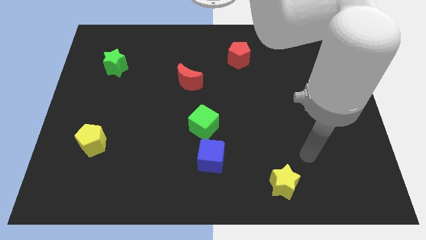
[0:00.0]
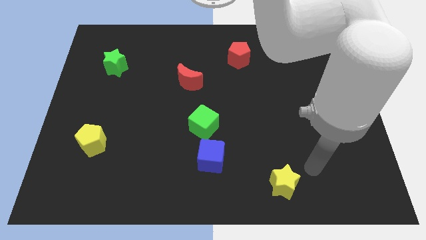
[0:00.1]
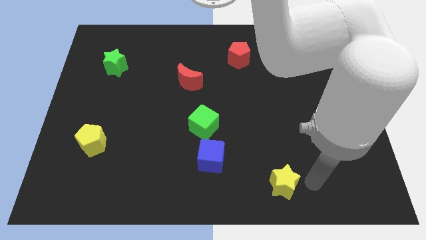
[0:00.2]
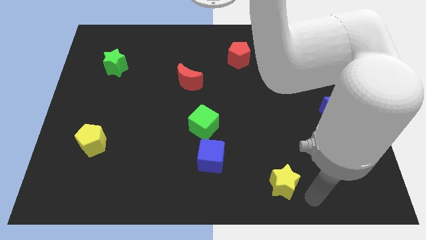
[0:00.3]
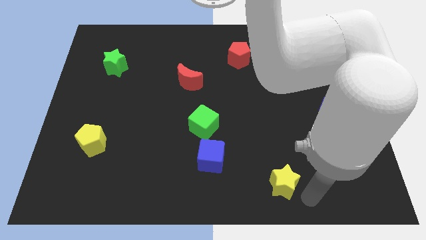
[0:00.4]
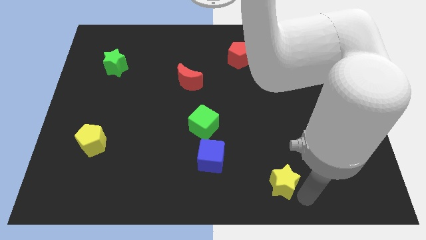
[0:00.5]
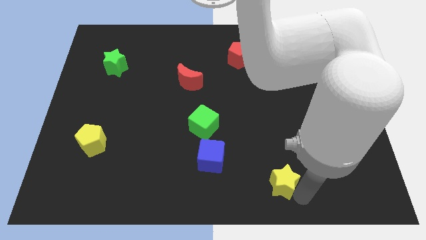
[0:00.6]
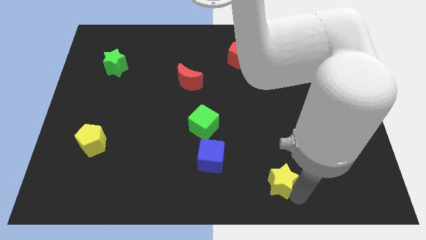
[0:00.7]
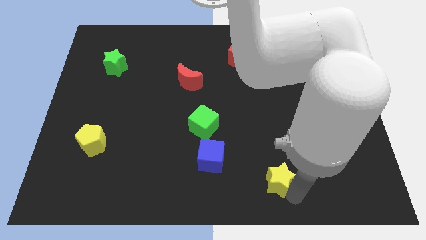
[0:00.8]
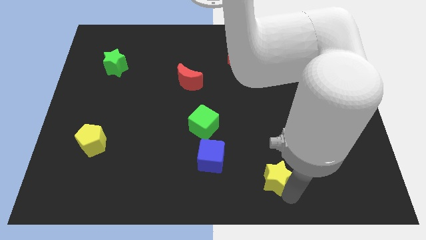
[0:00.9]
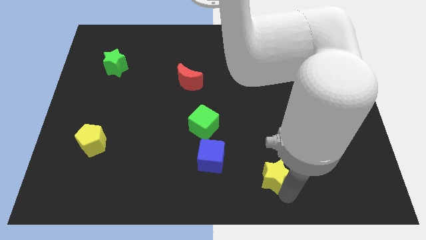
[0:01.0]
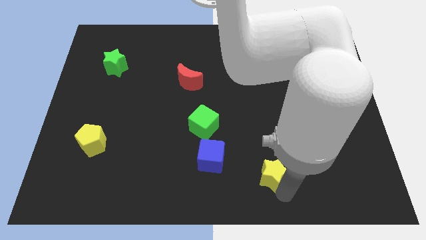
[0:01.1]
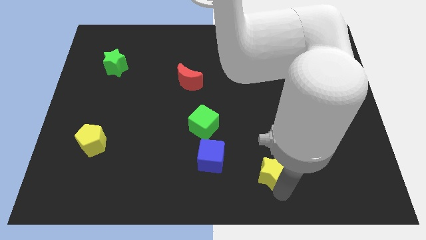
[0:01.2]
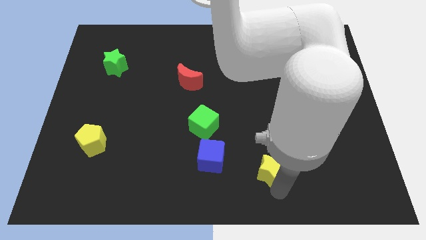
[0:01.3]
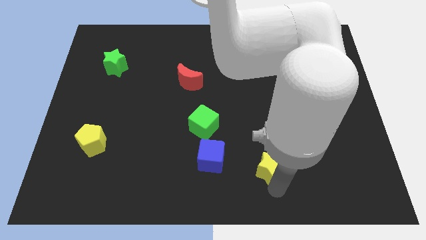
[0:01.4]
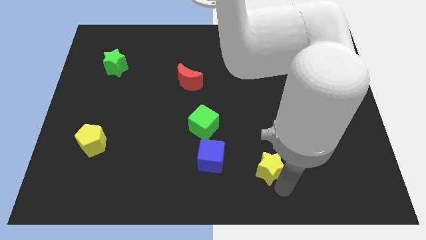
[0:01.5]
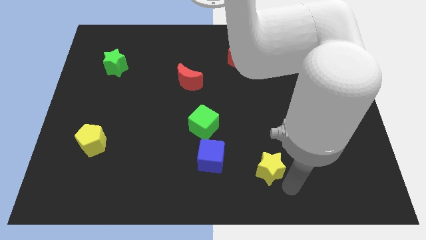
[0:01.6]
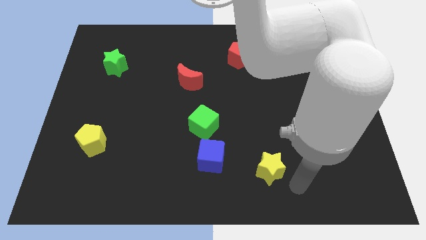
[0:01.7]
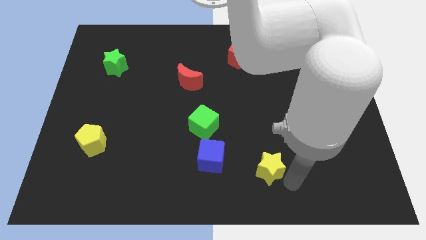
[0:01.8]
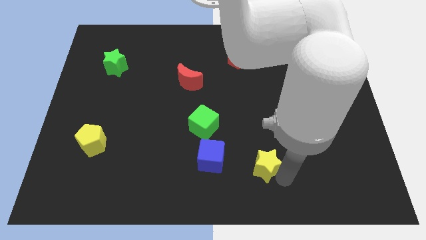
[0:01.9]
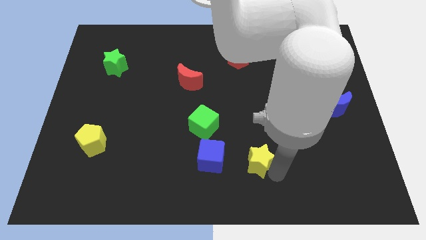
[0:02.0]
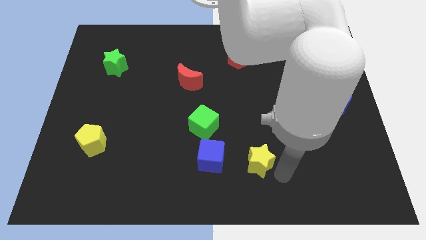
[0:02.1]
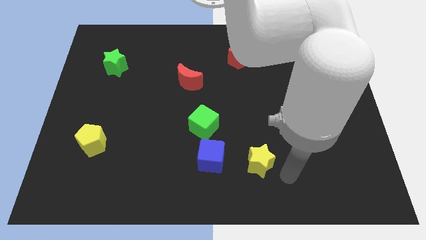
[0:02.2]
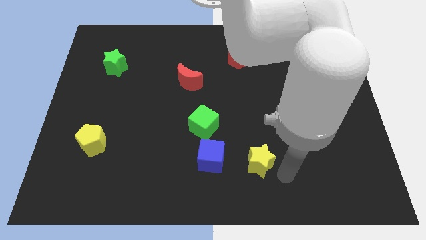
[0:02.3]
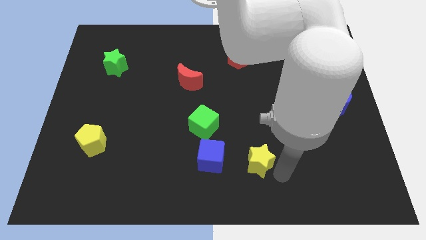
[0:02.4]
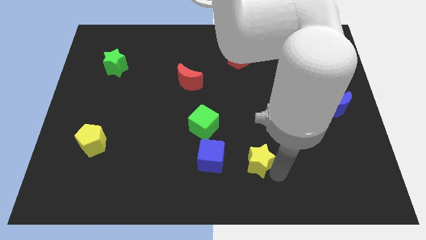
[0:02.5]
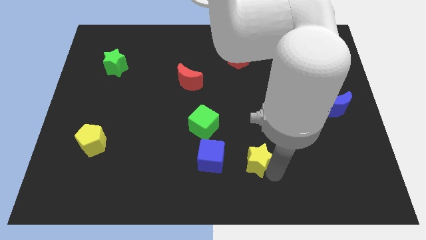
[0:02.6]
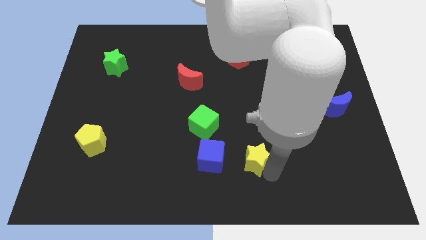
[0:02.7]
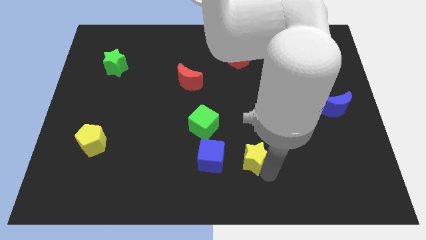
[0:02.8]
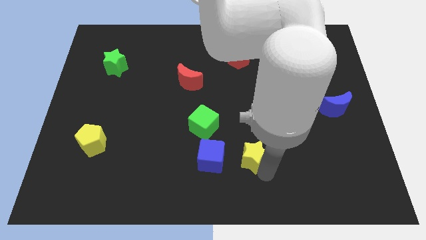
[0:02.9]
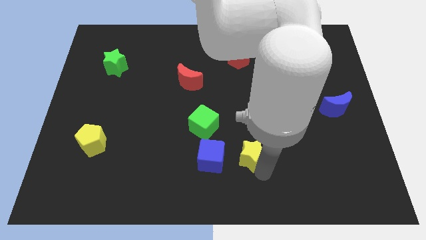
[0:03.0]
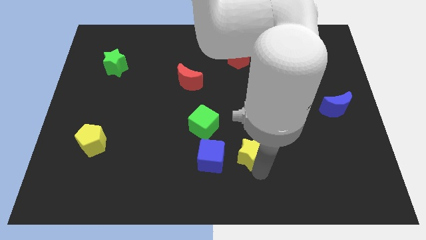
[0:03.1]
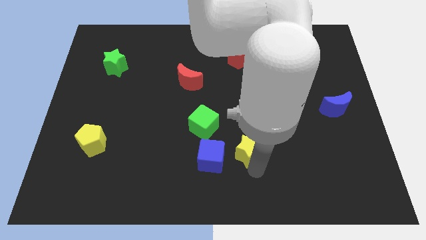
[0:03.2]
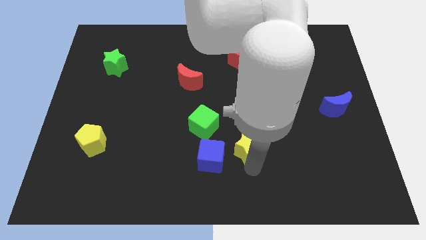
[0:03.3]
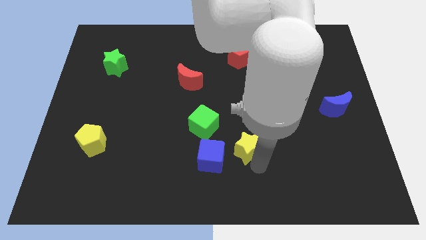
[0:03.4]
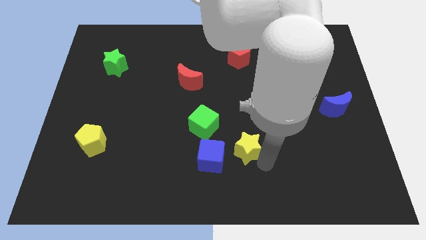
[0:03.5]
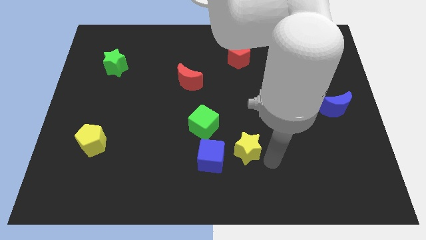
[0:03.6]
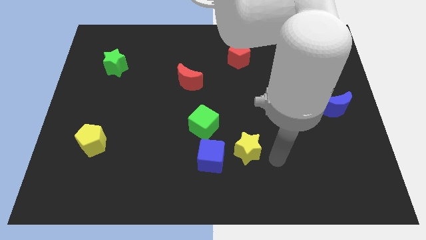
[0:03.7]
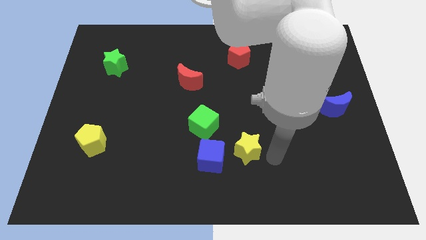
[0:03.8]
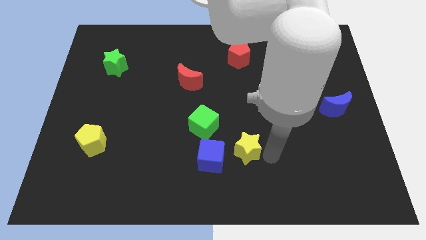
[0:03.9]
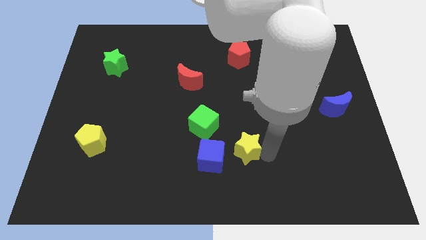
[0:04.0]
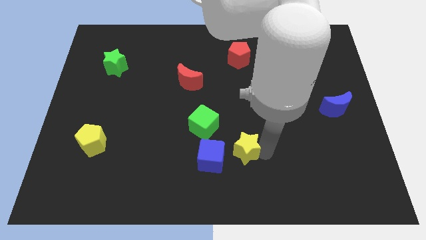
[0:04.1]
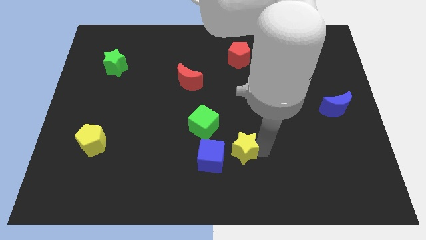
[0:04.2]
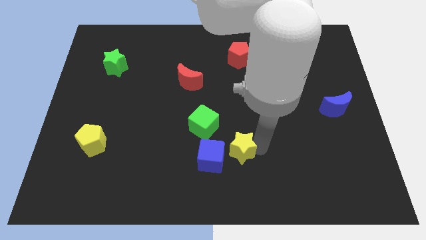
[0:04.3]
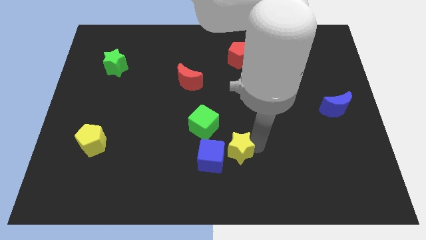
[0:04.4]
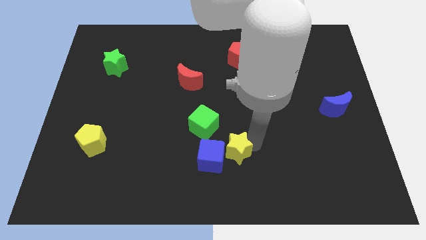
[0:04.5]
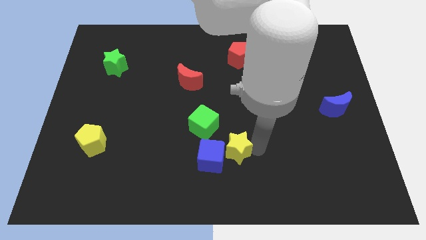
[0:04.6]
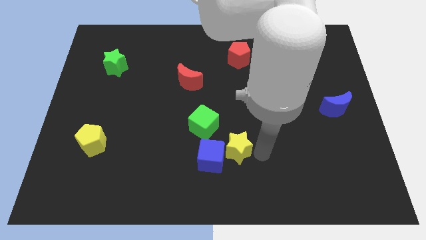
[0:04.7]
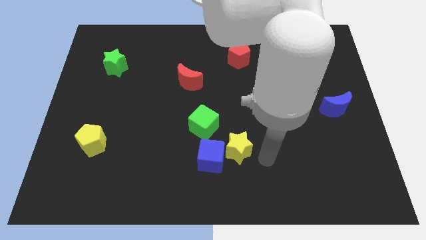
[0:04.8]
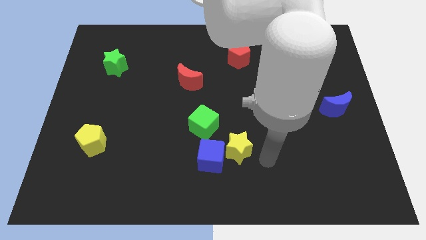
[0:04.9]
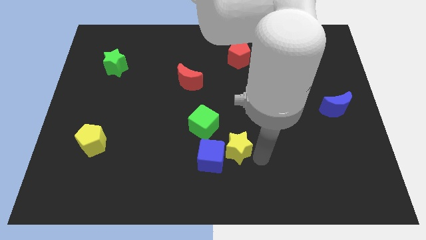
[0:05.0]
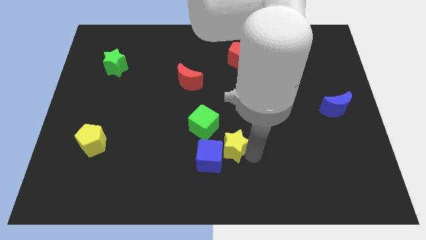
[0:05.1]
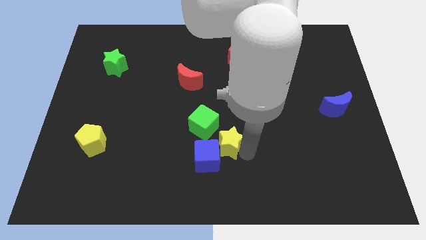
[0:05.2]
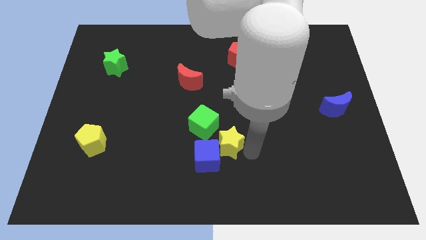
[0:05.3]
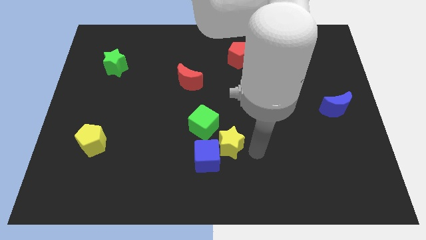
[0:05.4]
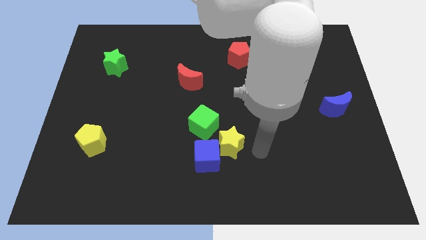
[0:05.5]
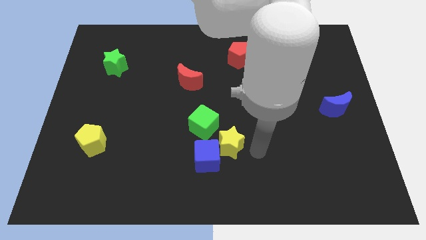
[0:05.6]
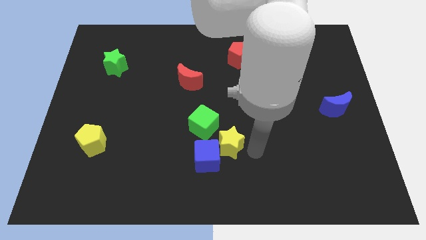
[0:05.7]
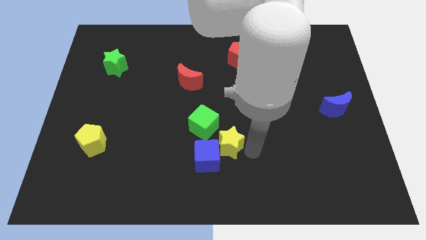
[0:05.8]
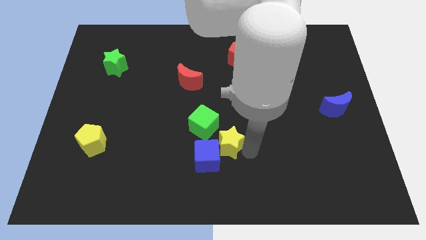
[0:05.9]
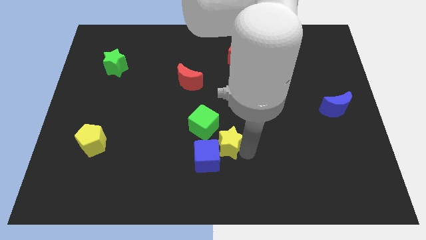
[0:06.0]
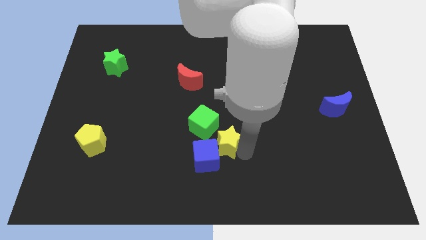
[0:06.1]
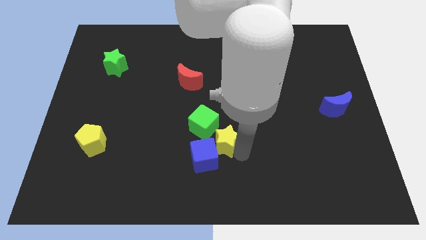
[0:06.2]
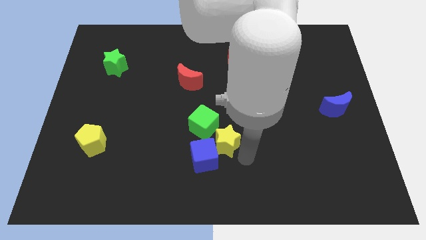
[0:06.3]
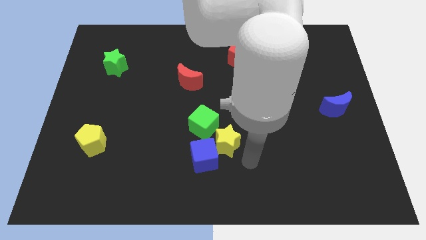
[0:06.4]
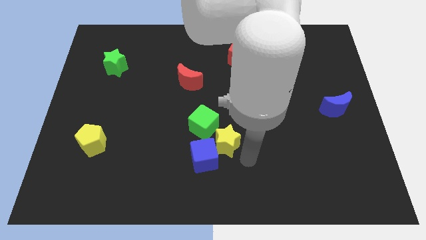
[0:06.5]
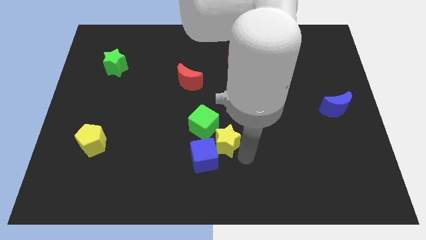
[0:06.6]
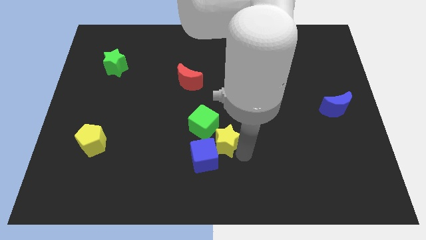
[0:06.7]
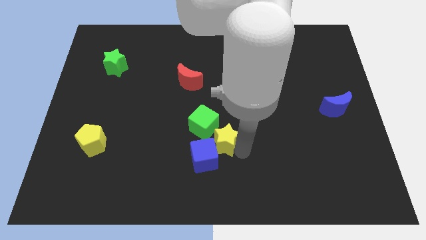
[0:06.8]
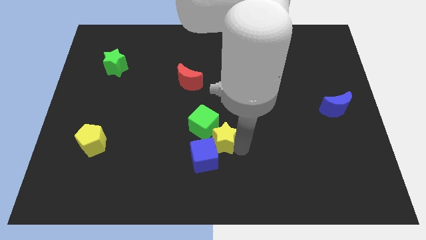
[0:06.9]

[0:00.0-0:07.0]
put the yellow star close to the green cube

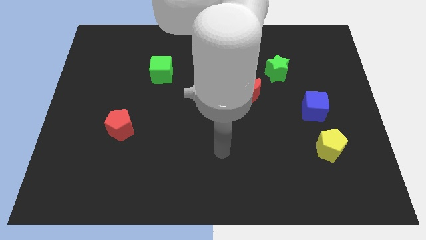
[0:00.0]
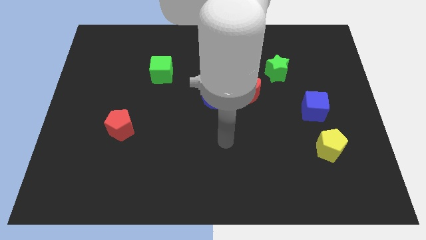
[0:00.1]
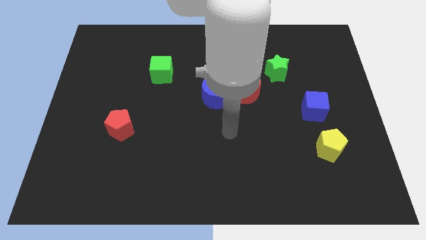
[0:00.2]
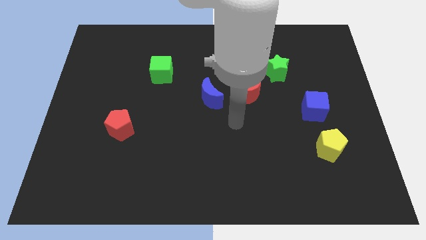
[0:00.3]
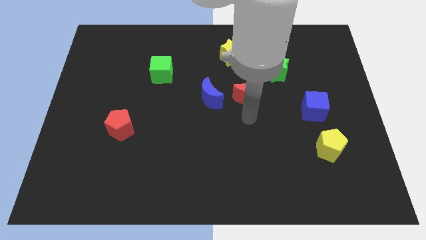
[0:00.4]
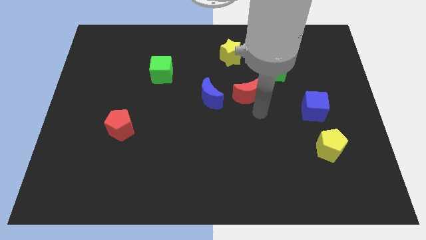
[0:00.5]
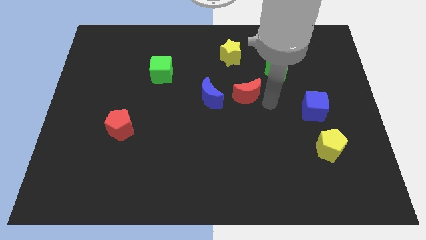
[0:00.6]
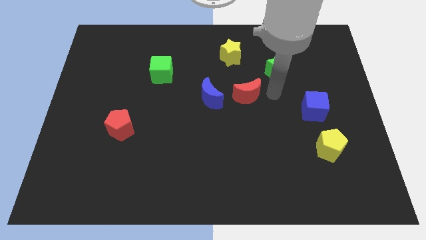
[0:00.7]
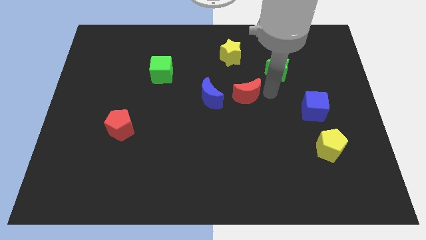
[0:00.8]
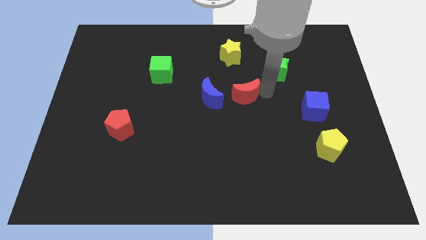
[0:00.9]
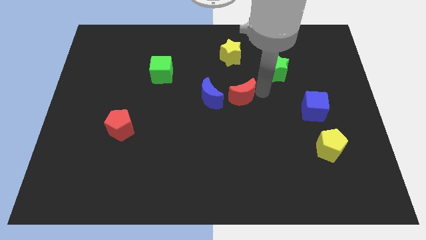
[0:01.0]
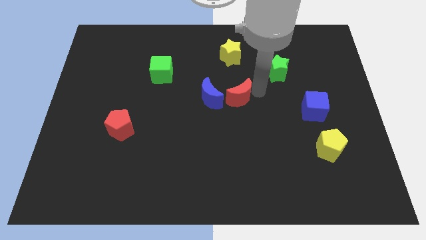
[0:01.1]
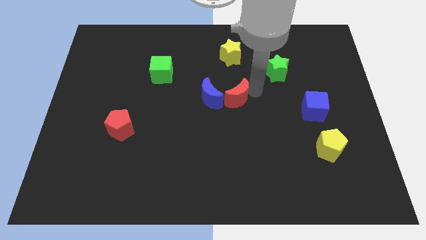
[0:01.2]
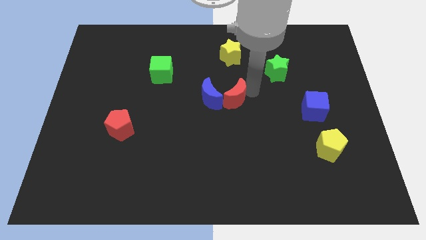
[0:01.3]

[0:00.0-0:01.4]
put the red moon towards the blue moon
